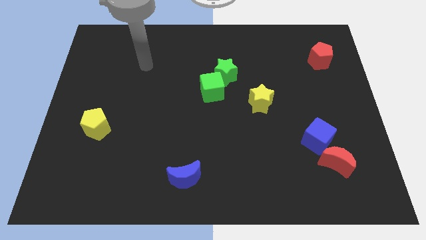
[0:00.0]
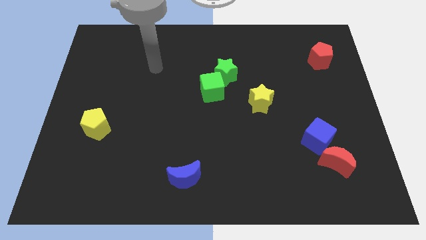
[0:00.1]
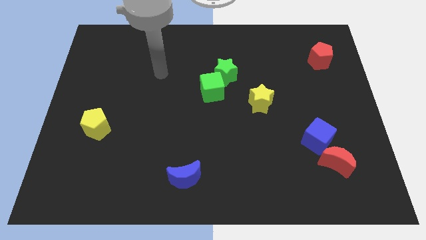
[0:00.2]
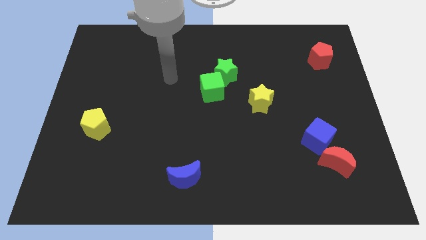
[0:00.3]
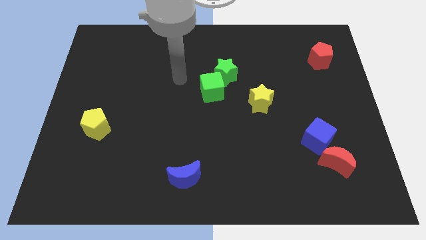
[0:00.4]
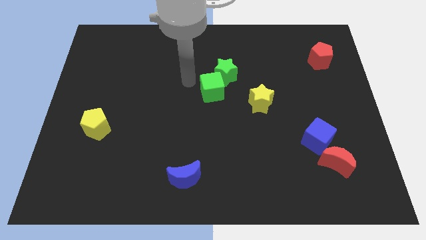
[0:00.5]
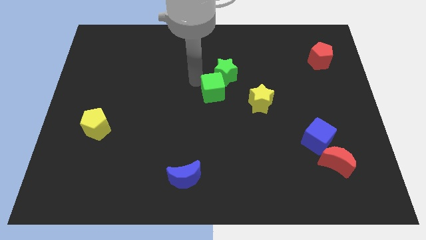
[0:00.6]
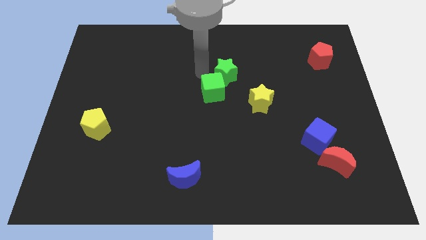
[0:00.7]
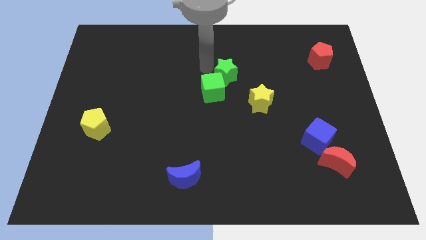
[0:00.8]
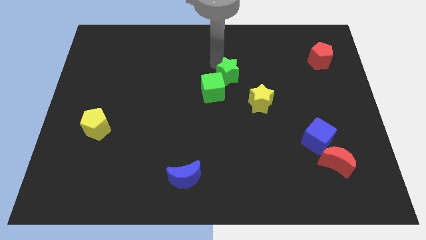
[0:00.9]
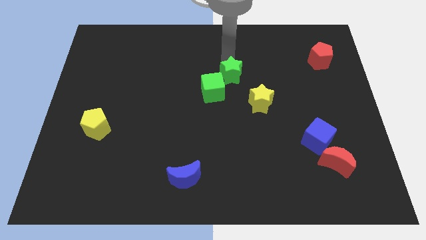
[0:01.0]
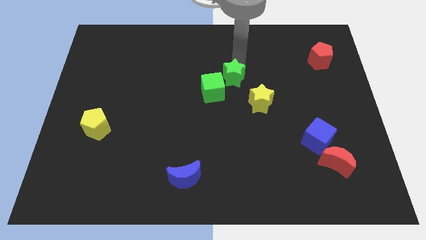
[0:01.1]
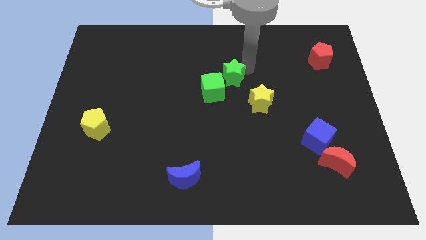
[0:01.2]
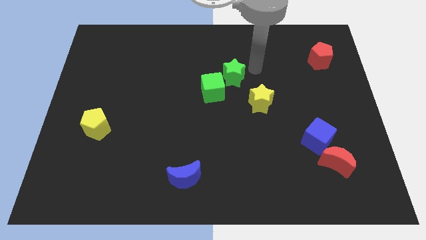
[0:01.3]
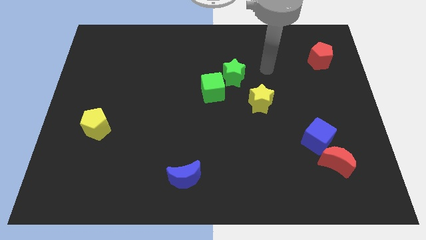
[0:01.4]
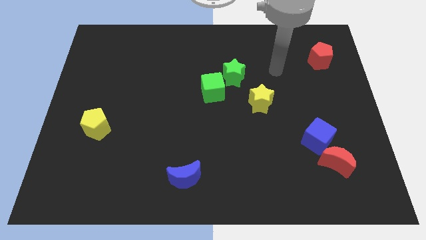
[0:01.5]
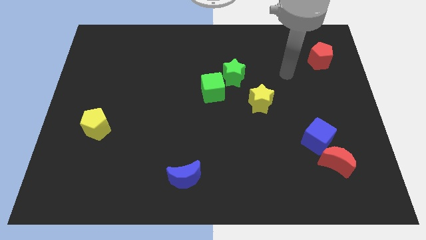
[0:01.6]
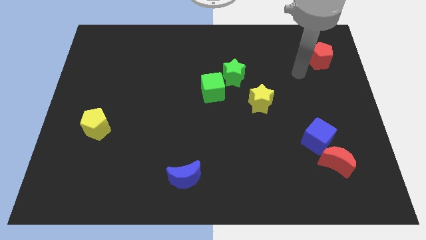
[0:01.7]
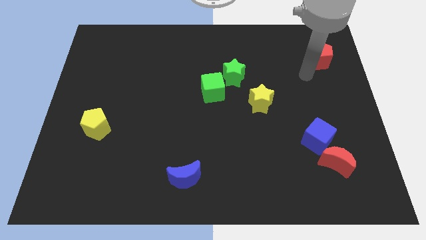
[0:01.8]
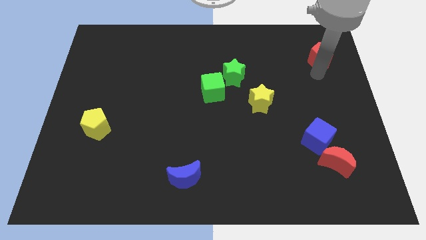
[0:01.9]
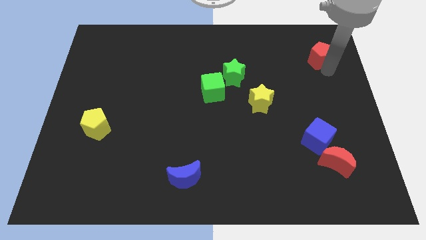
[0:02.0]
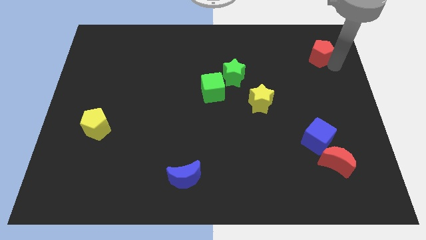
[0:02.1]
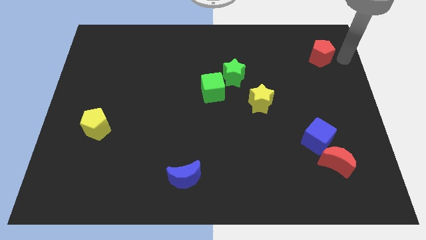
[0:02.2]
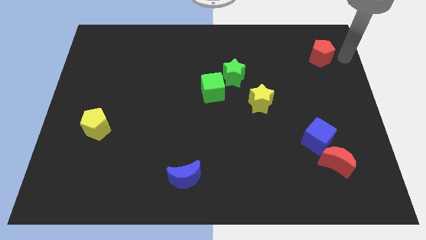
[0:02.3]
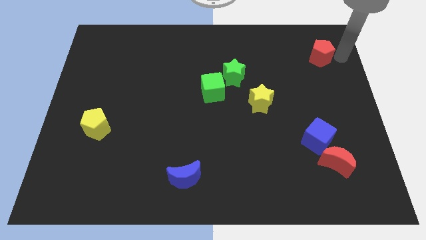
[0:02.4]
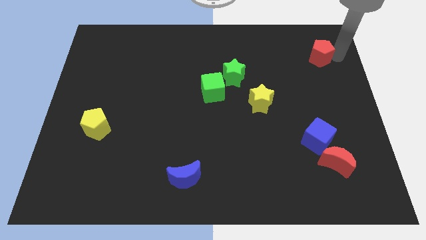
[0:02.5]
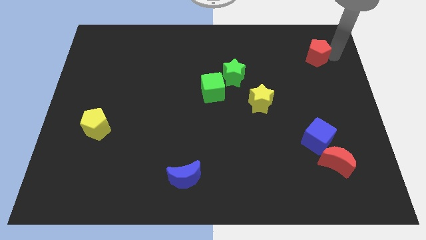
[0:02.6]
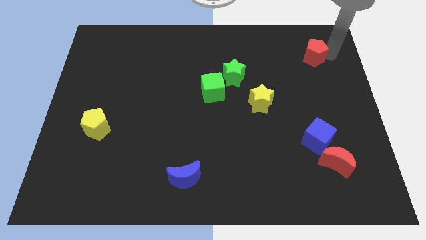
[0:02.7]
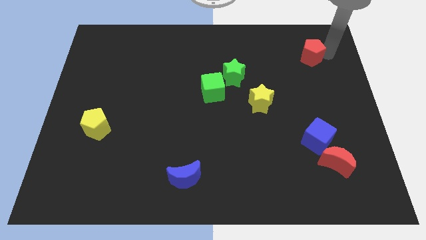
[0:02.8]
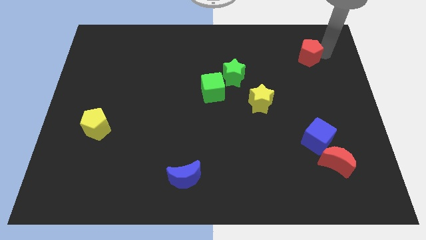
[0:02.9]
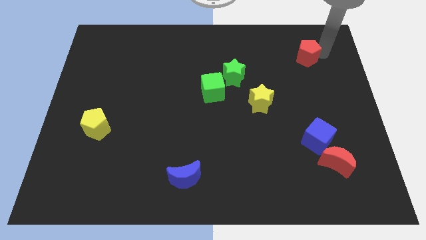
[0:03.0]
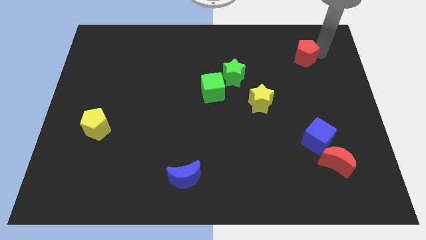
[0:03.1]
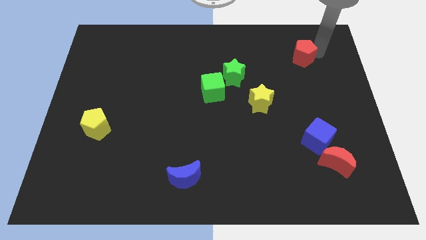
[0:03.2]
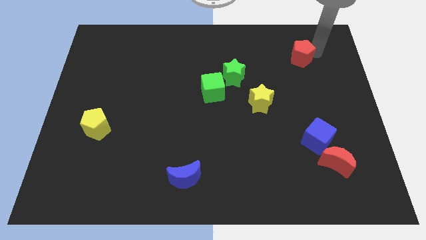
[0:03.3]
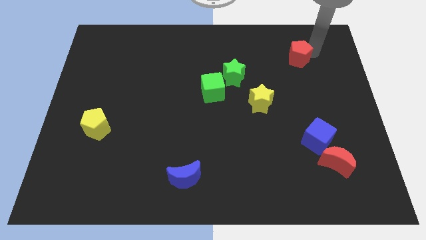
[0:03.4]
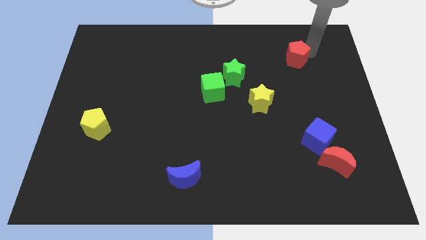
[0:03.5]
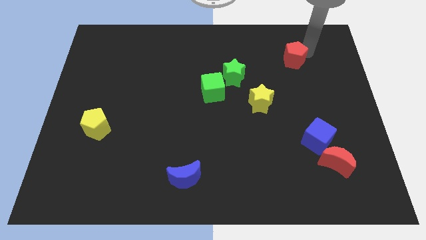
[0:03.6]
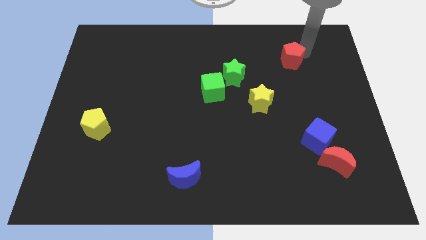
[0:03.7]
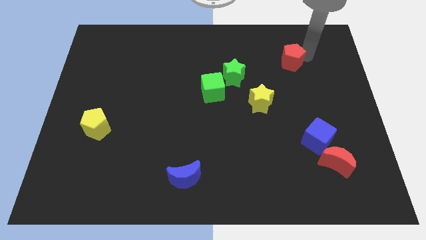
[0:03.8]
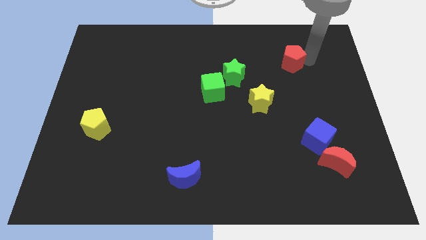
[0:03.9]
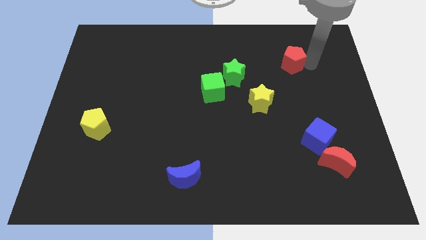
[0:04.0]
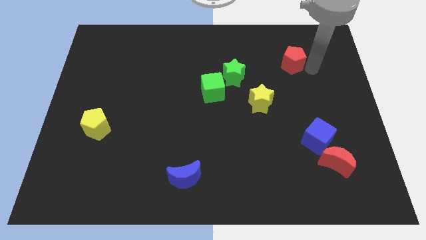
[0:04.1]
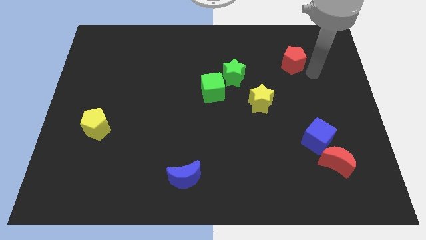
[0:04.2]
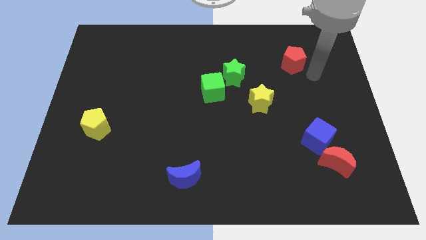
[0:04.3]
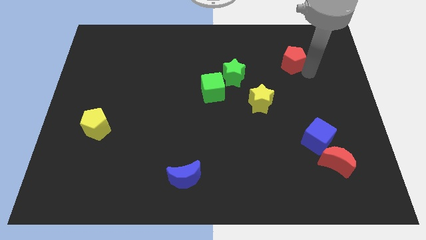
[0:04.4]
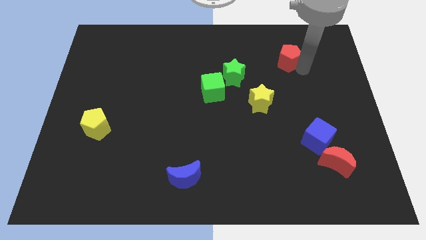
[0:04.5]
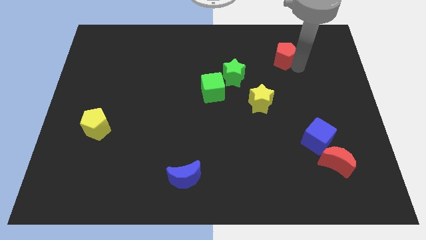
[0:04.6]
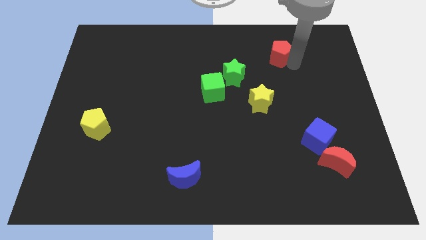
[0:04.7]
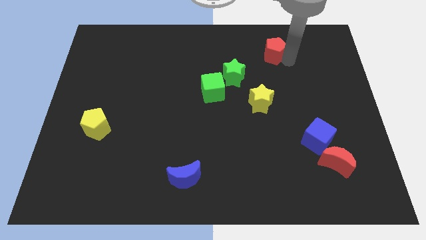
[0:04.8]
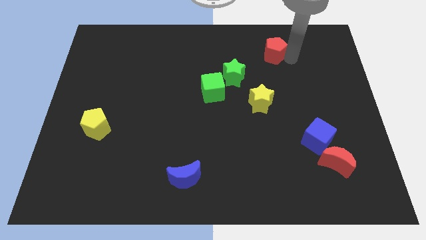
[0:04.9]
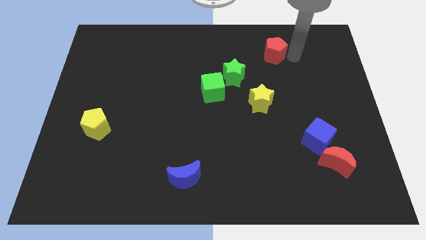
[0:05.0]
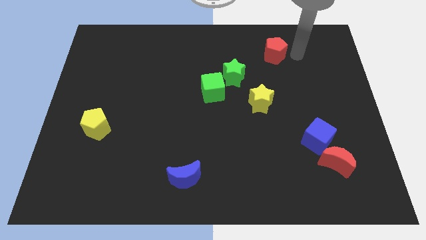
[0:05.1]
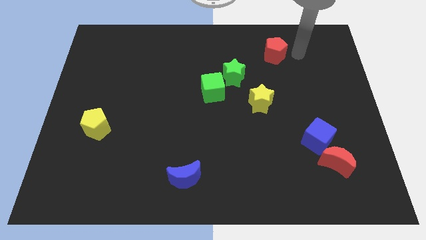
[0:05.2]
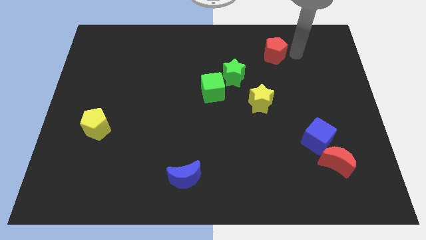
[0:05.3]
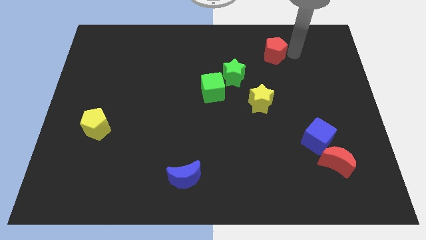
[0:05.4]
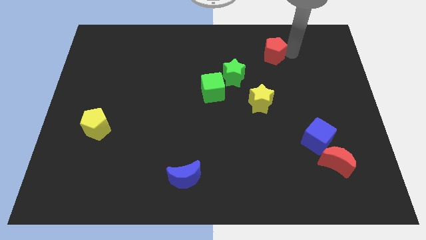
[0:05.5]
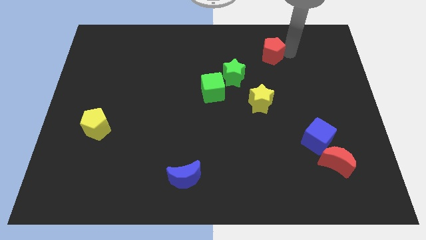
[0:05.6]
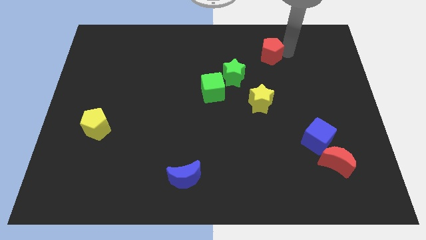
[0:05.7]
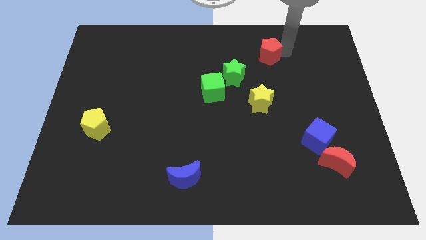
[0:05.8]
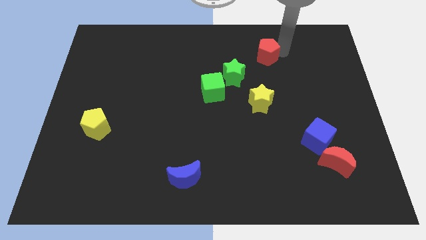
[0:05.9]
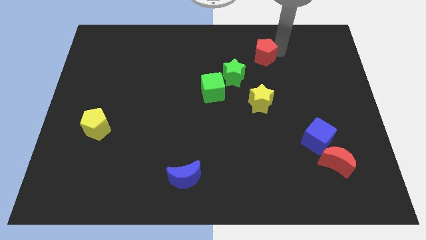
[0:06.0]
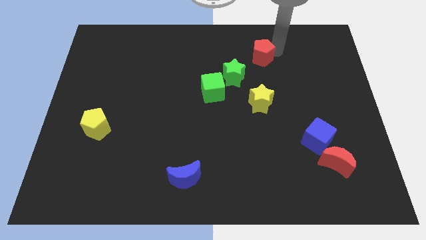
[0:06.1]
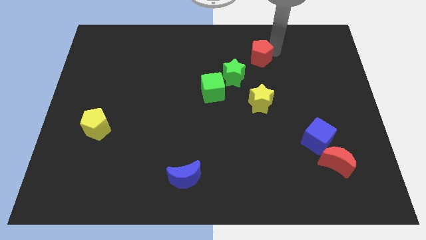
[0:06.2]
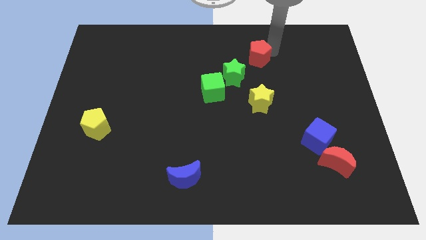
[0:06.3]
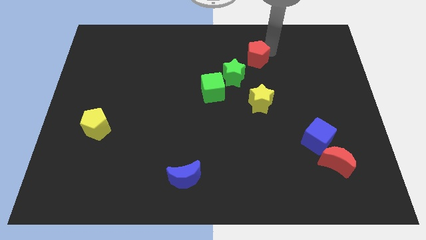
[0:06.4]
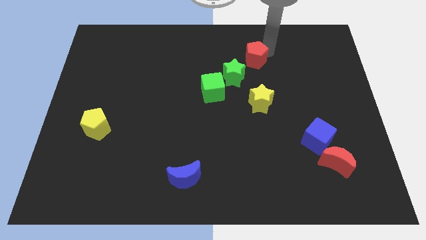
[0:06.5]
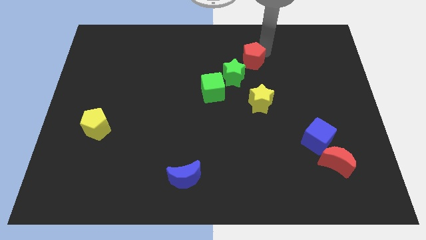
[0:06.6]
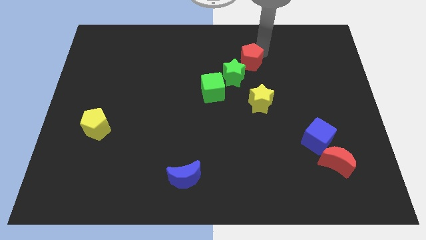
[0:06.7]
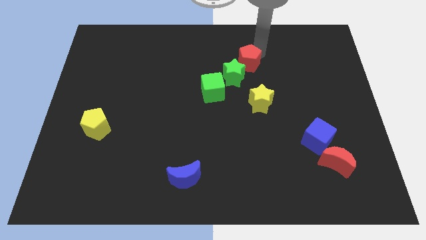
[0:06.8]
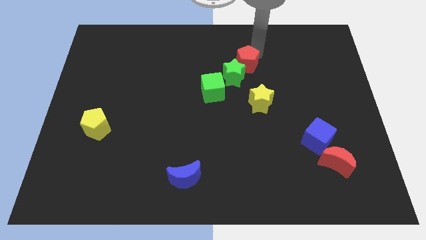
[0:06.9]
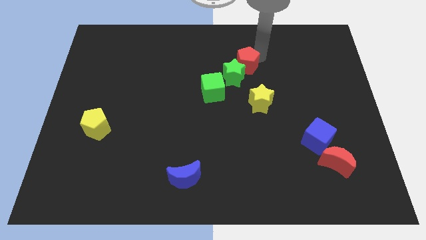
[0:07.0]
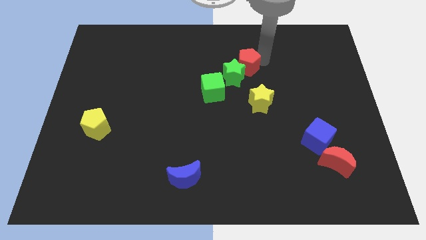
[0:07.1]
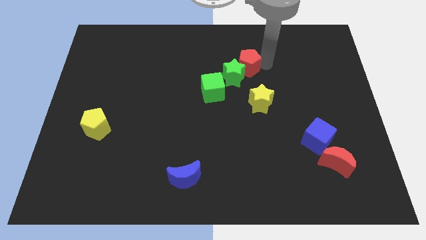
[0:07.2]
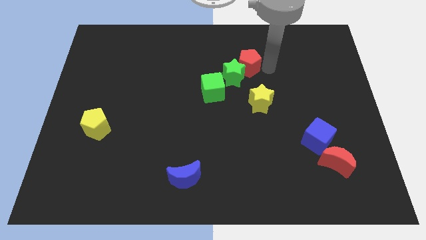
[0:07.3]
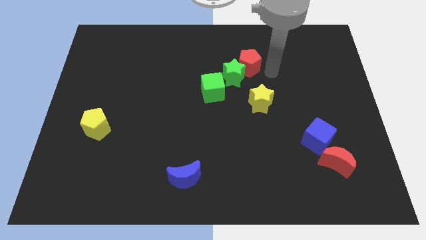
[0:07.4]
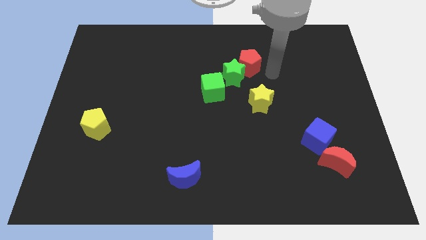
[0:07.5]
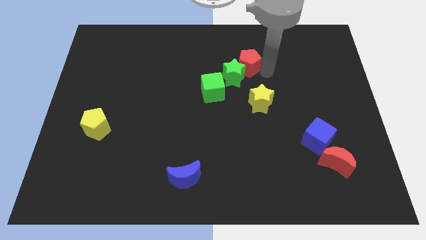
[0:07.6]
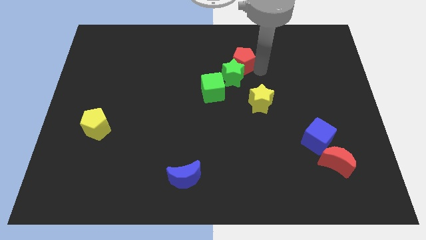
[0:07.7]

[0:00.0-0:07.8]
slide the red pentagon to the left

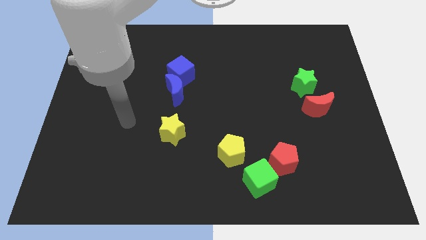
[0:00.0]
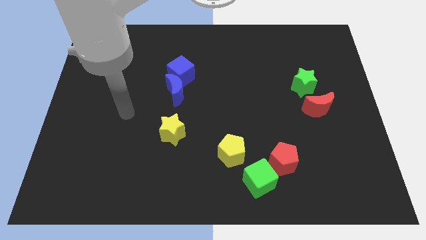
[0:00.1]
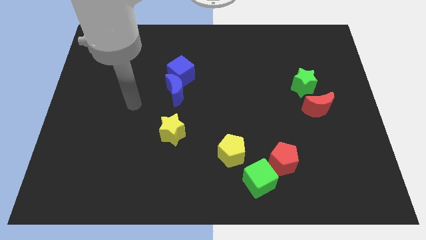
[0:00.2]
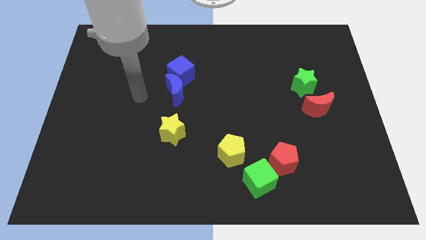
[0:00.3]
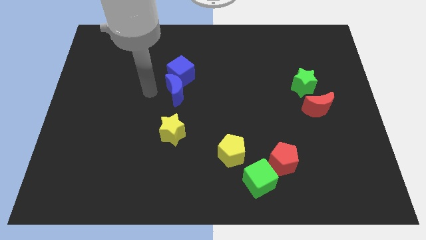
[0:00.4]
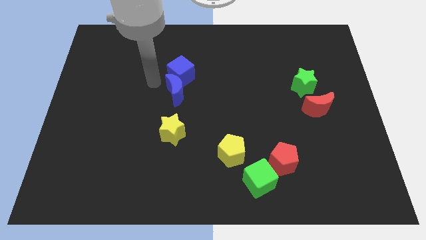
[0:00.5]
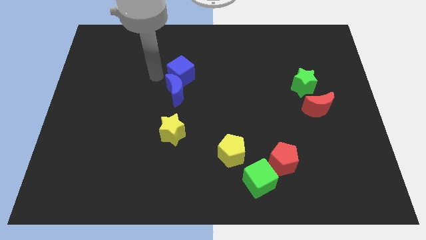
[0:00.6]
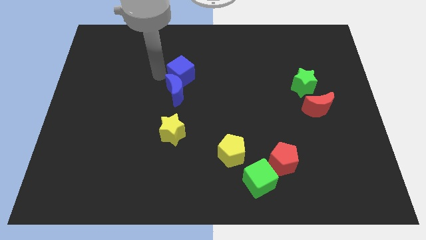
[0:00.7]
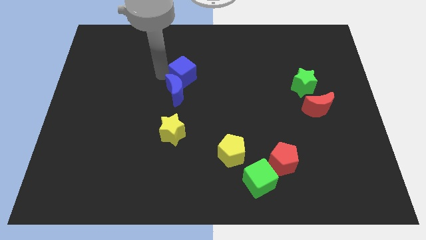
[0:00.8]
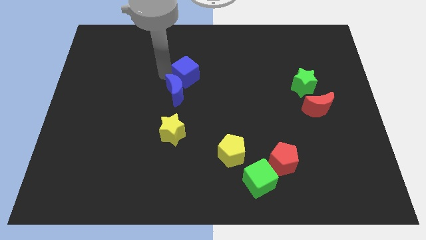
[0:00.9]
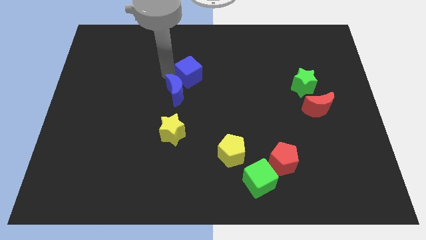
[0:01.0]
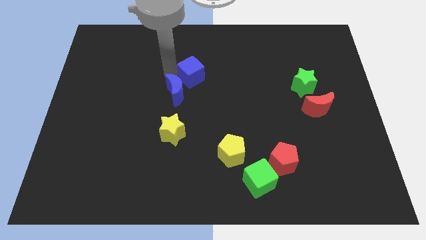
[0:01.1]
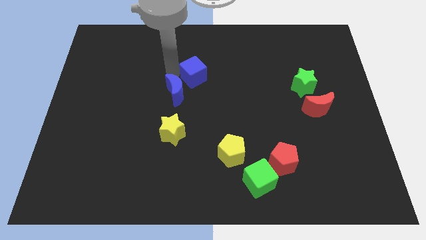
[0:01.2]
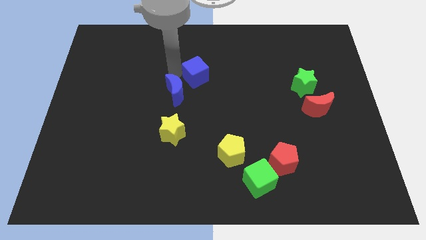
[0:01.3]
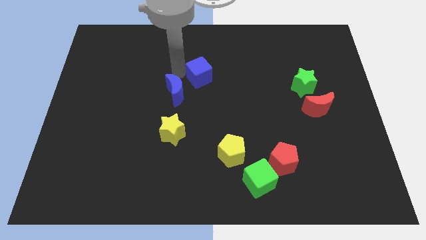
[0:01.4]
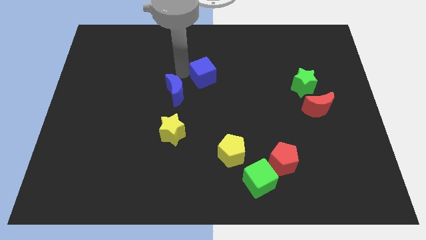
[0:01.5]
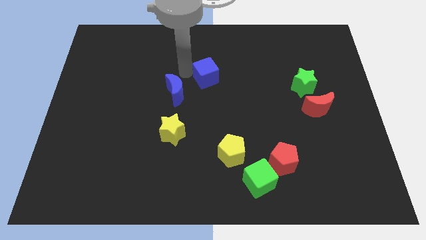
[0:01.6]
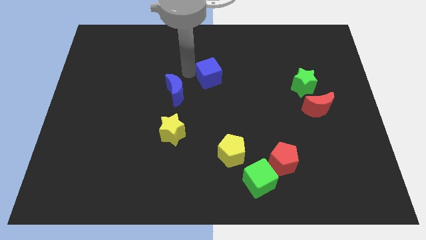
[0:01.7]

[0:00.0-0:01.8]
push the blue cube to the right a little
